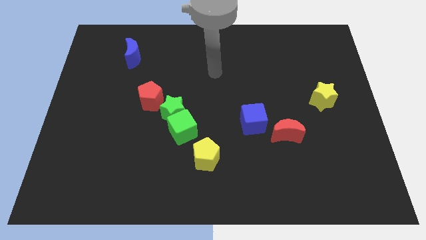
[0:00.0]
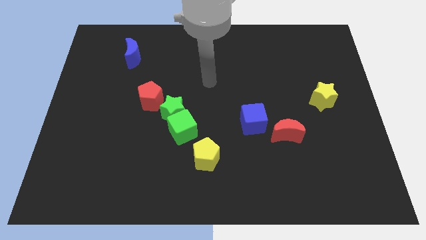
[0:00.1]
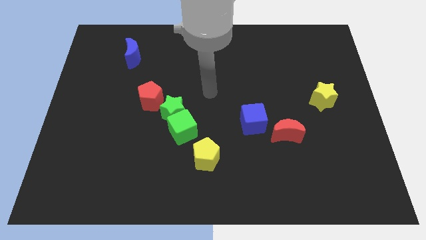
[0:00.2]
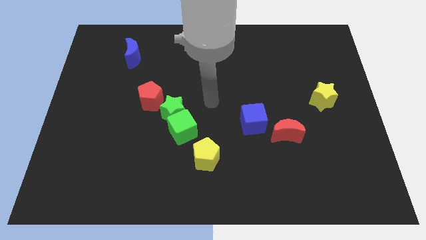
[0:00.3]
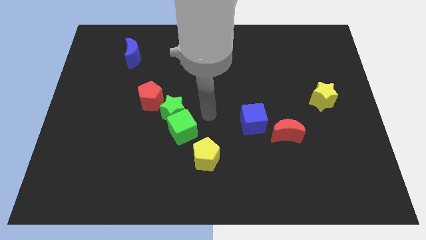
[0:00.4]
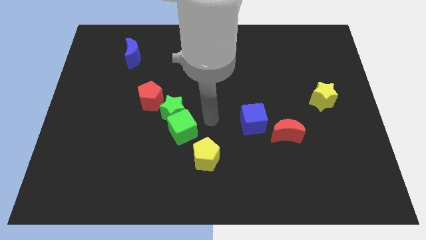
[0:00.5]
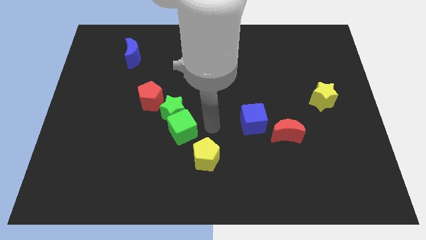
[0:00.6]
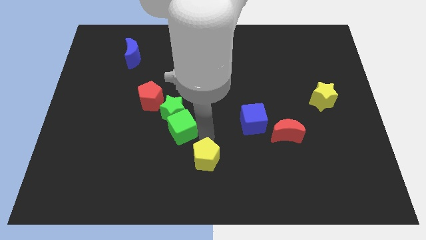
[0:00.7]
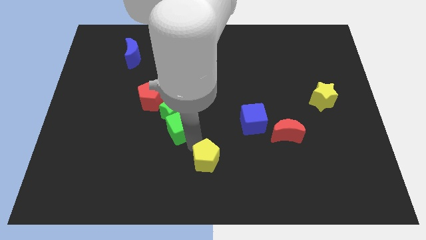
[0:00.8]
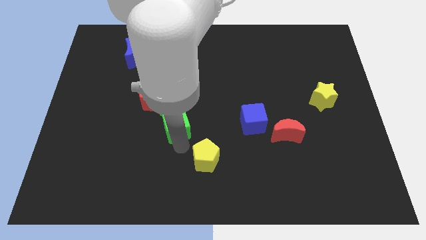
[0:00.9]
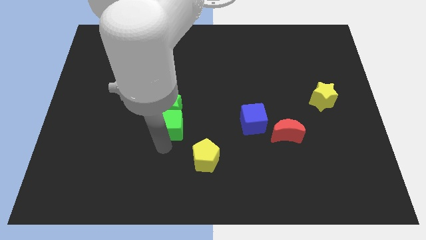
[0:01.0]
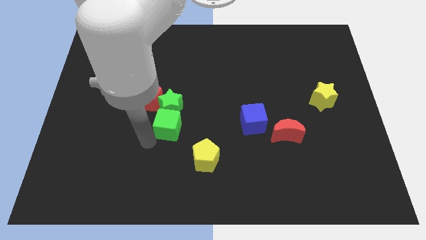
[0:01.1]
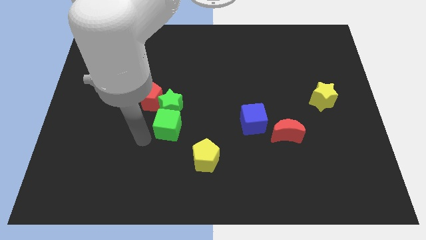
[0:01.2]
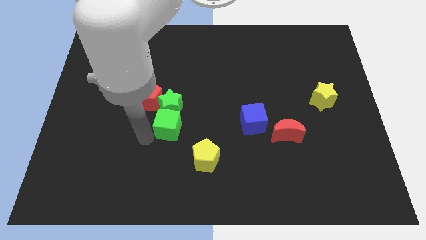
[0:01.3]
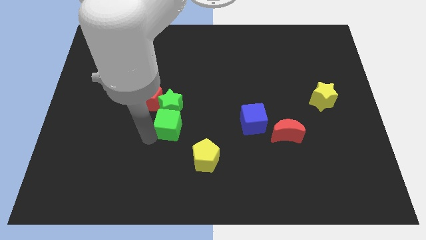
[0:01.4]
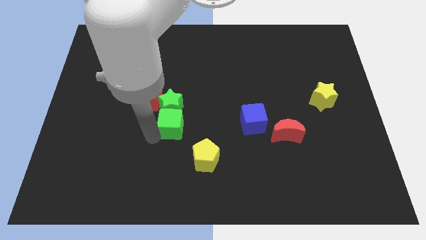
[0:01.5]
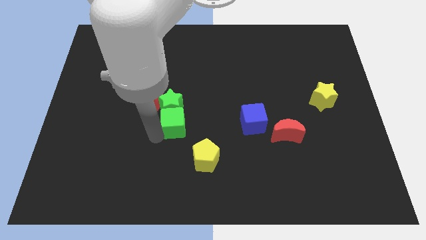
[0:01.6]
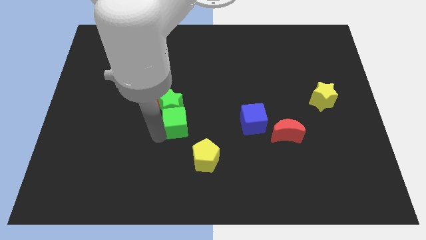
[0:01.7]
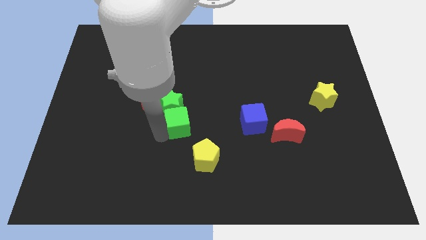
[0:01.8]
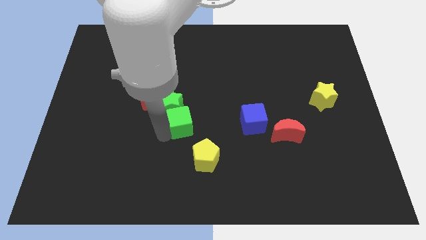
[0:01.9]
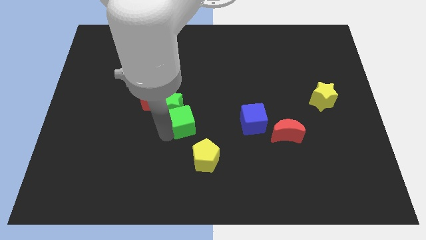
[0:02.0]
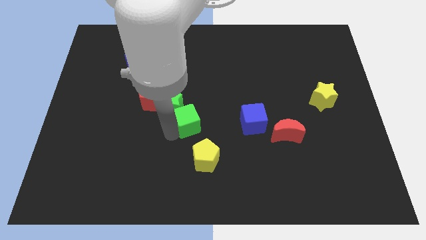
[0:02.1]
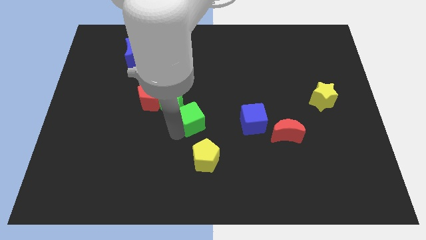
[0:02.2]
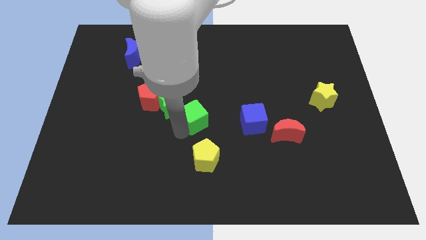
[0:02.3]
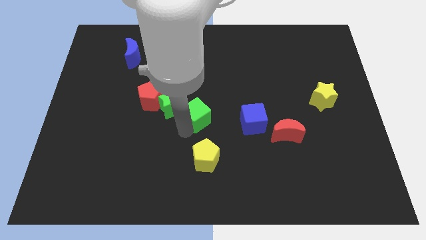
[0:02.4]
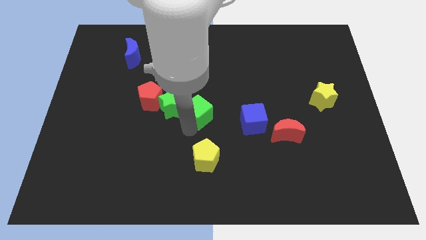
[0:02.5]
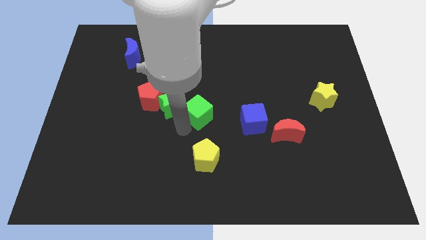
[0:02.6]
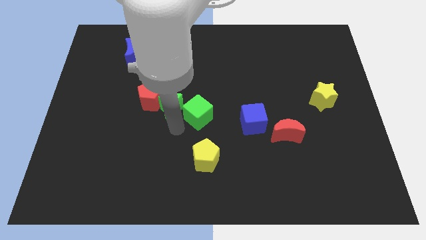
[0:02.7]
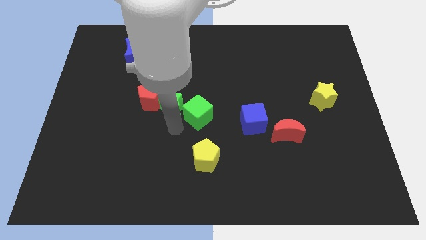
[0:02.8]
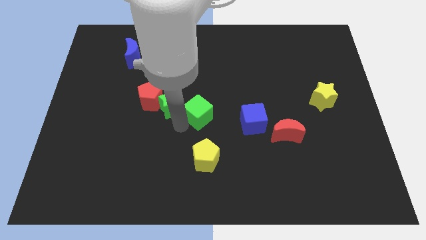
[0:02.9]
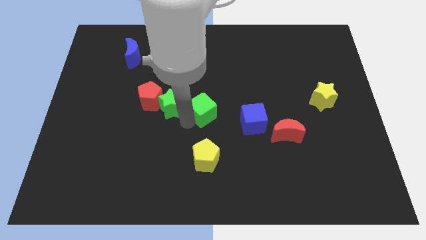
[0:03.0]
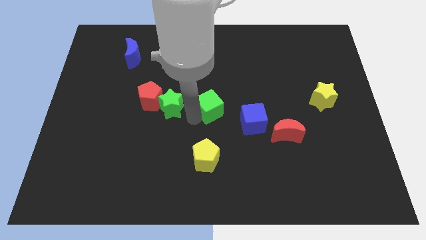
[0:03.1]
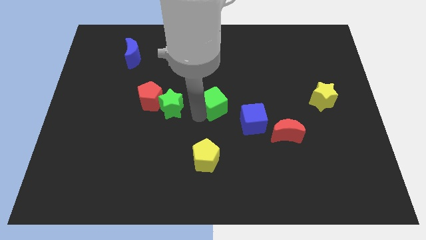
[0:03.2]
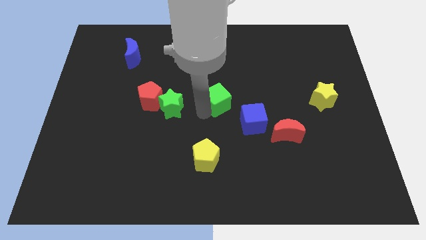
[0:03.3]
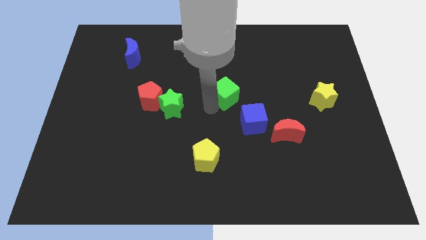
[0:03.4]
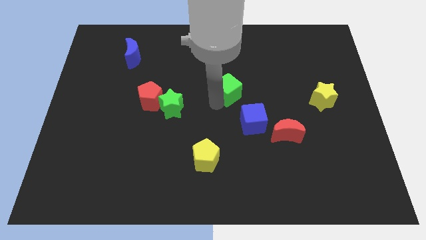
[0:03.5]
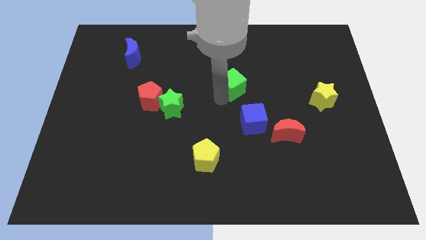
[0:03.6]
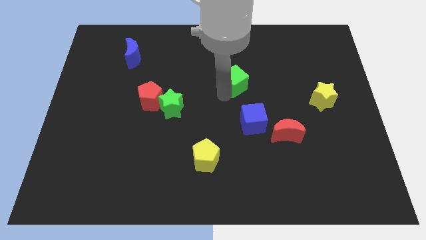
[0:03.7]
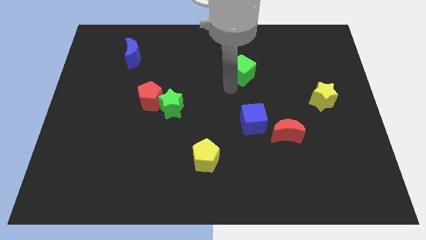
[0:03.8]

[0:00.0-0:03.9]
push the green cube upwards and right diagonally

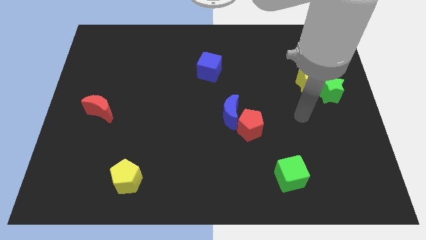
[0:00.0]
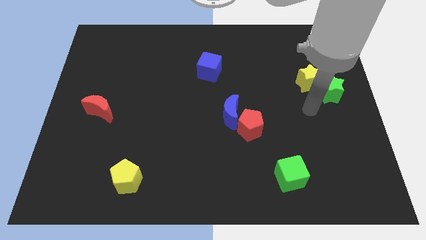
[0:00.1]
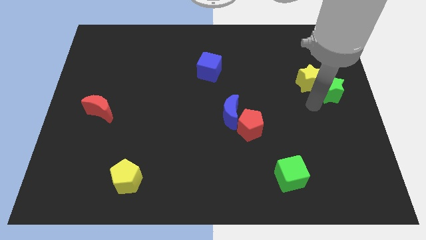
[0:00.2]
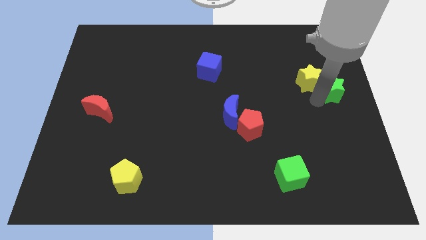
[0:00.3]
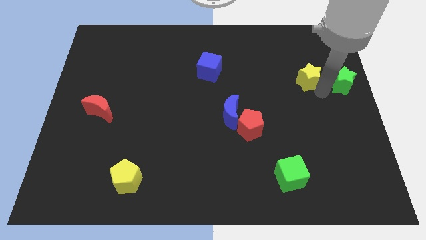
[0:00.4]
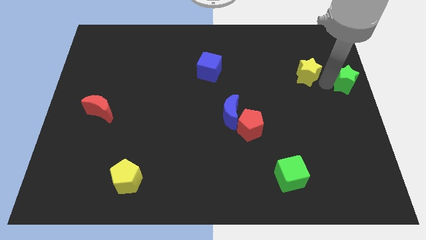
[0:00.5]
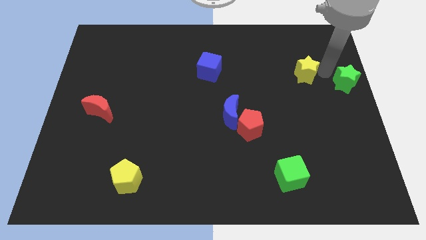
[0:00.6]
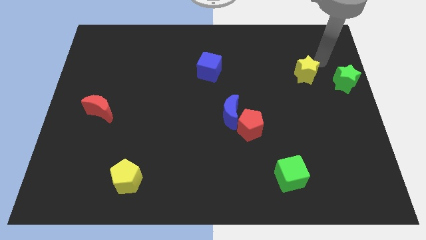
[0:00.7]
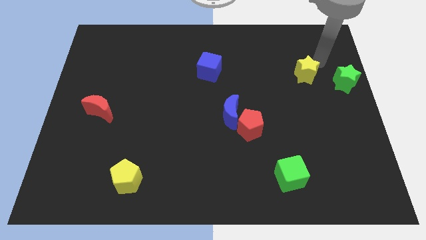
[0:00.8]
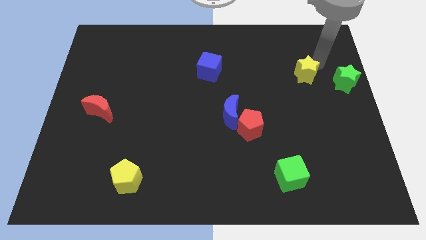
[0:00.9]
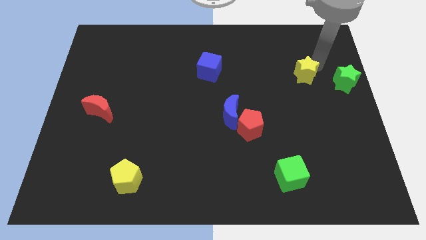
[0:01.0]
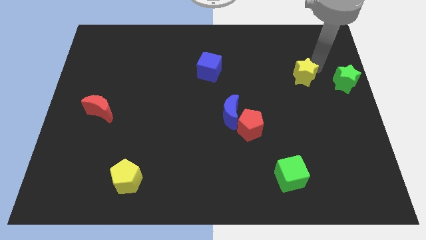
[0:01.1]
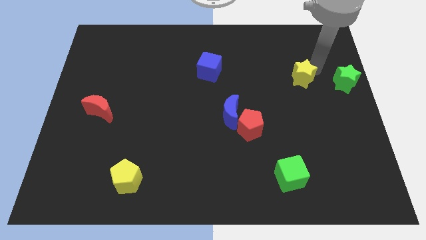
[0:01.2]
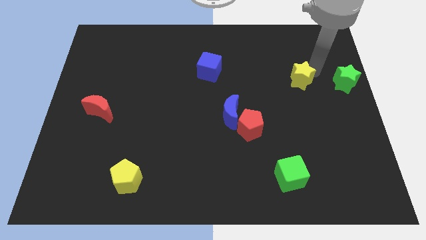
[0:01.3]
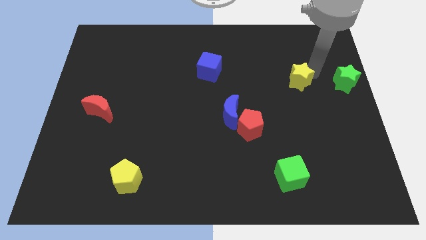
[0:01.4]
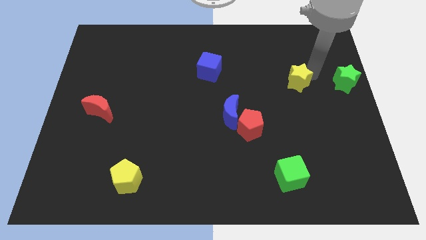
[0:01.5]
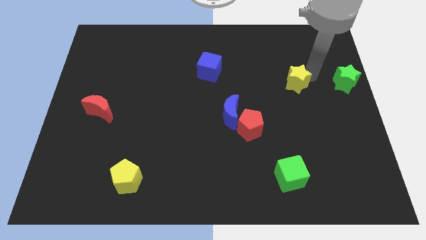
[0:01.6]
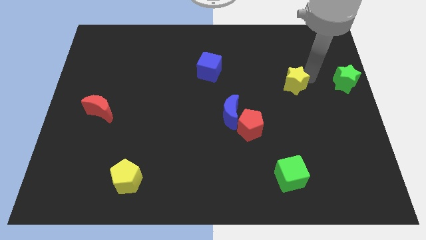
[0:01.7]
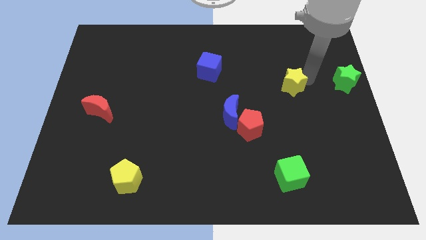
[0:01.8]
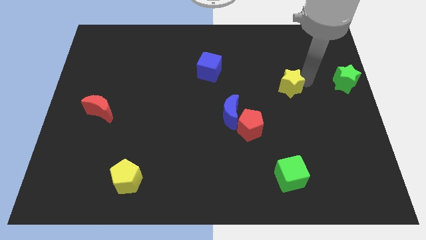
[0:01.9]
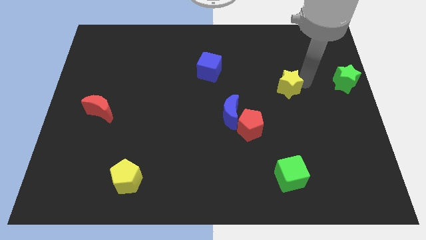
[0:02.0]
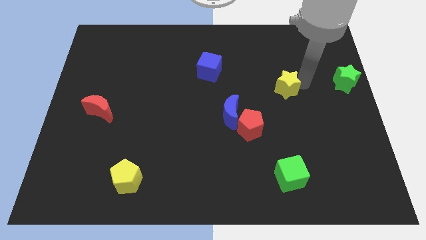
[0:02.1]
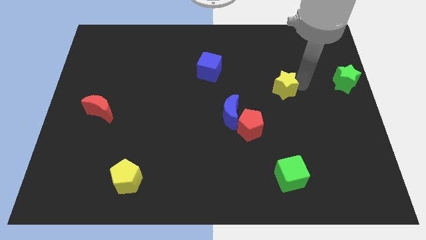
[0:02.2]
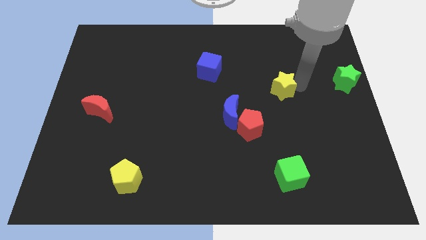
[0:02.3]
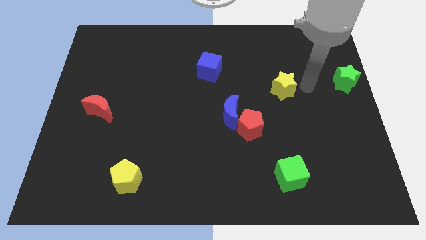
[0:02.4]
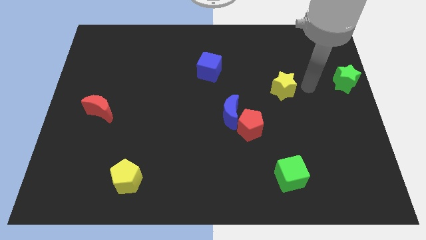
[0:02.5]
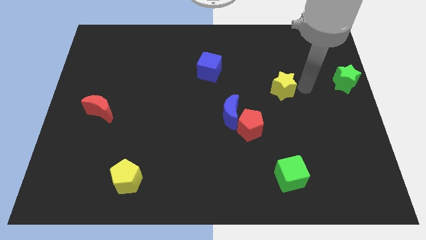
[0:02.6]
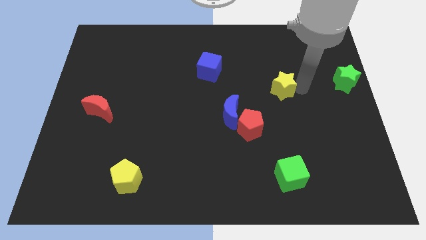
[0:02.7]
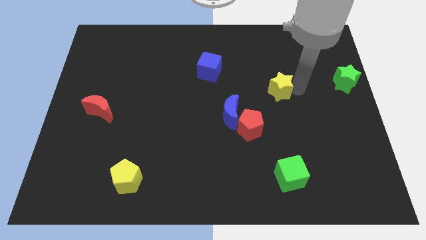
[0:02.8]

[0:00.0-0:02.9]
push the yellow star a little bit left

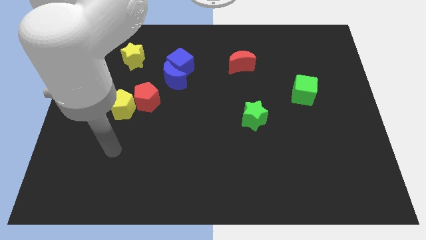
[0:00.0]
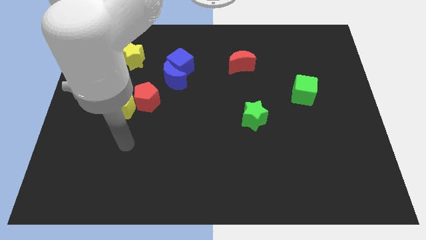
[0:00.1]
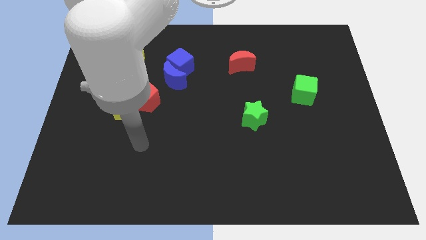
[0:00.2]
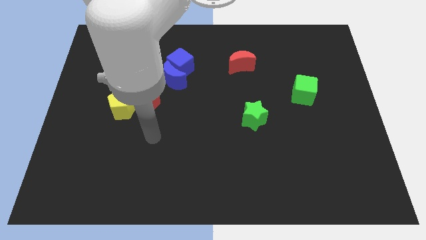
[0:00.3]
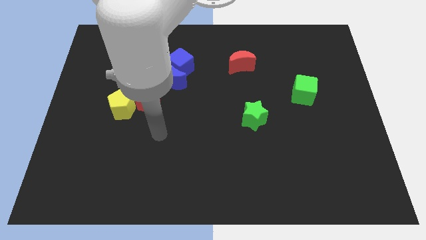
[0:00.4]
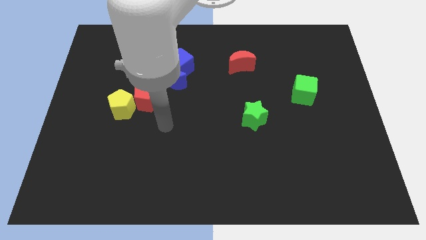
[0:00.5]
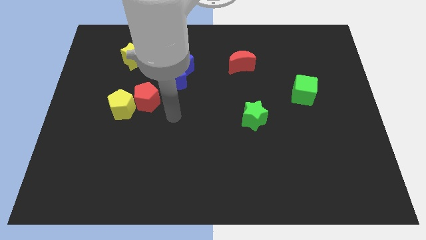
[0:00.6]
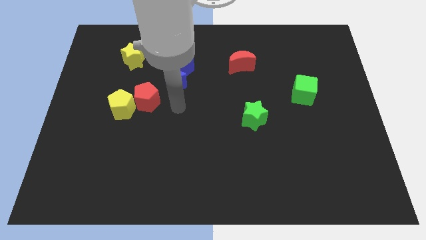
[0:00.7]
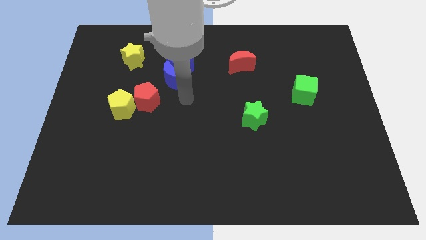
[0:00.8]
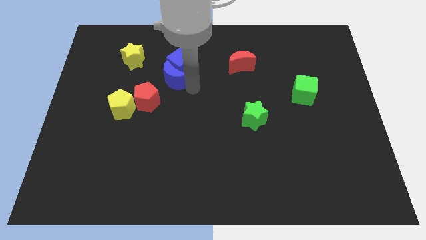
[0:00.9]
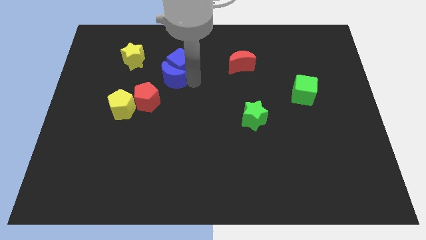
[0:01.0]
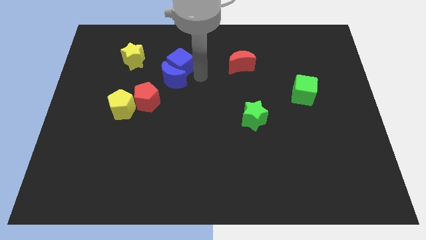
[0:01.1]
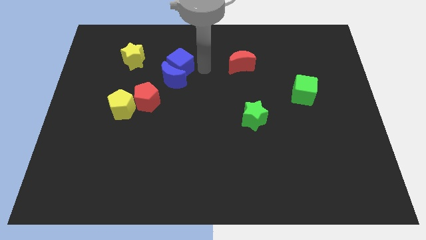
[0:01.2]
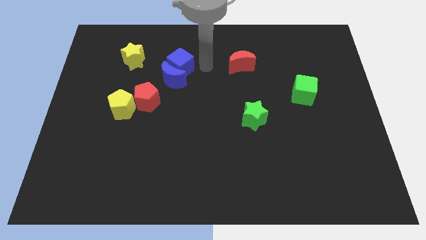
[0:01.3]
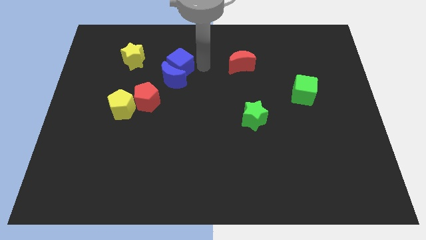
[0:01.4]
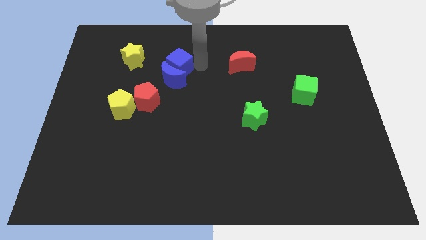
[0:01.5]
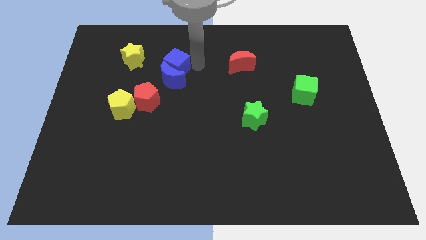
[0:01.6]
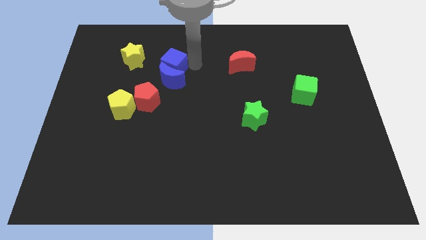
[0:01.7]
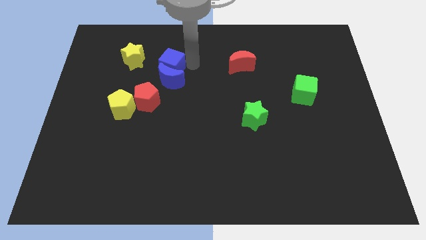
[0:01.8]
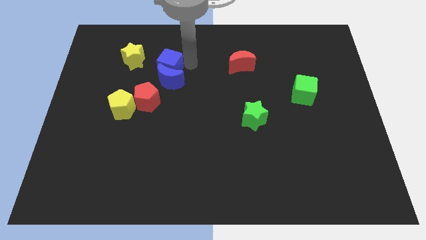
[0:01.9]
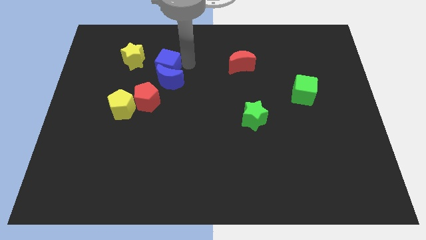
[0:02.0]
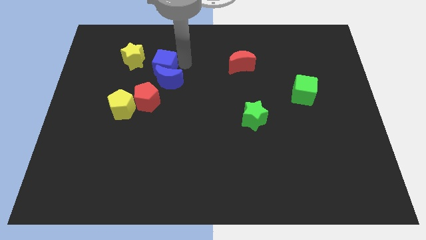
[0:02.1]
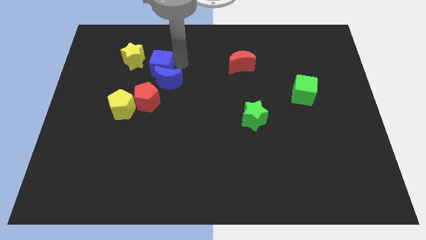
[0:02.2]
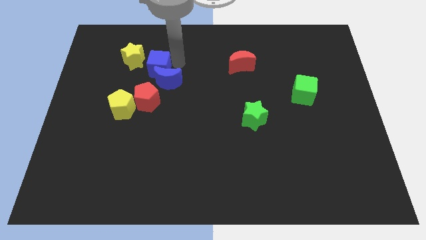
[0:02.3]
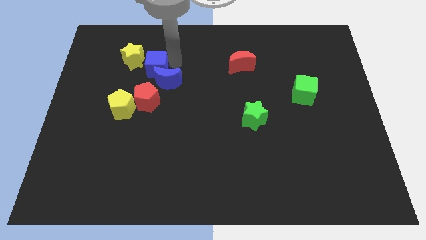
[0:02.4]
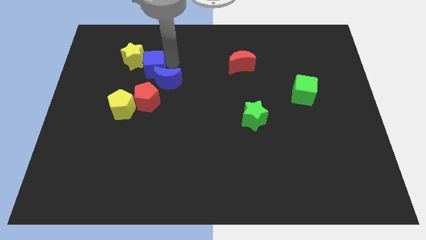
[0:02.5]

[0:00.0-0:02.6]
slightly move the blue cube to the left
